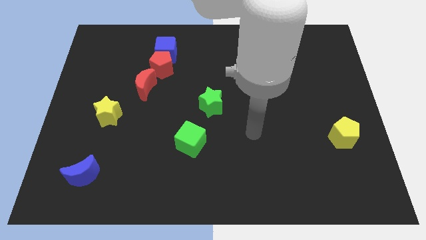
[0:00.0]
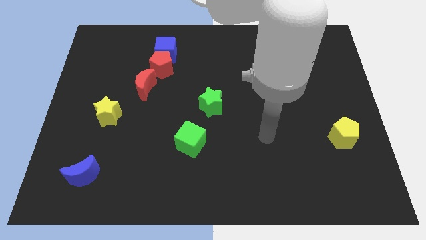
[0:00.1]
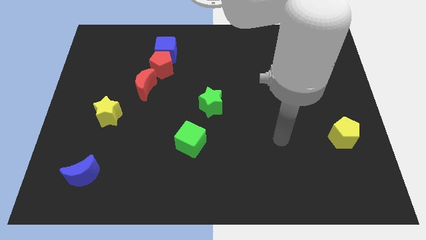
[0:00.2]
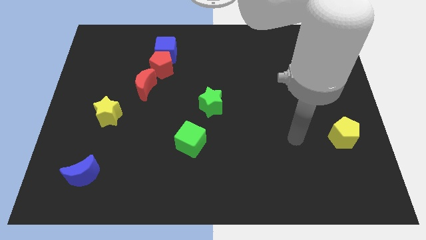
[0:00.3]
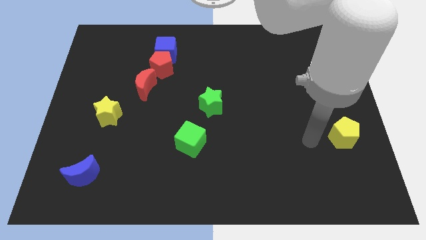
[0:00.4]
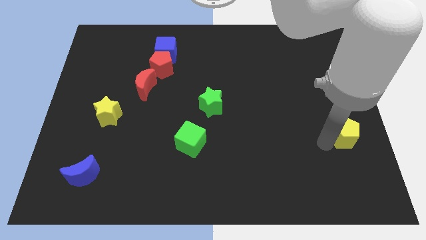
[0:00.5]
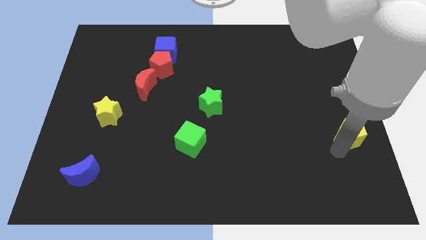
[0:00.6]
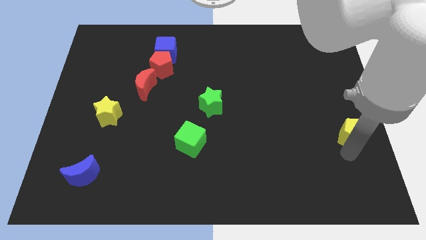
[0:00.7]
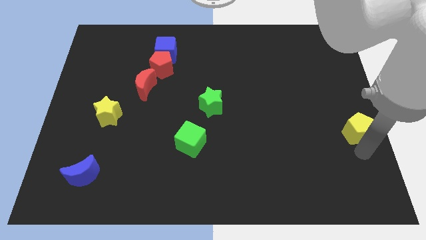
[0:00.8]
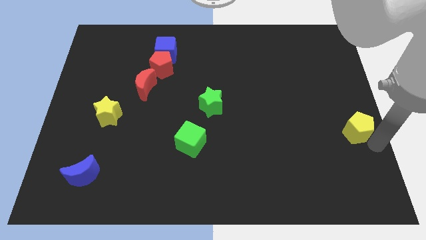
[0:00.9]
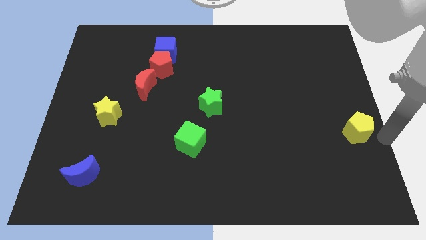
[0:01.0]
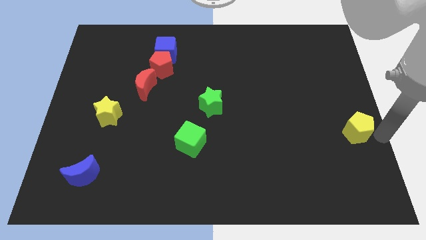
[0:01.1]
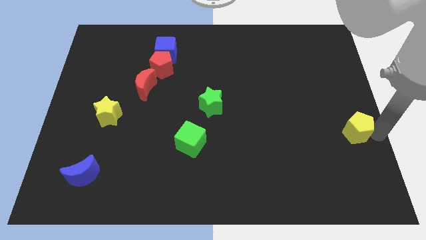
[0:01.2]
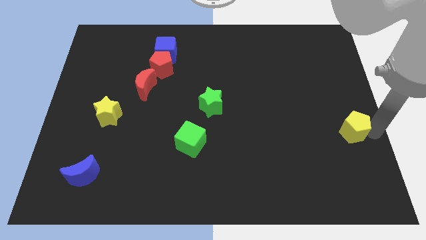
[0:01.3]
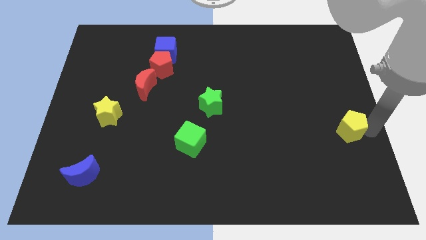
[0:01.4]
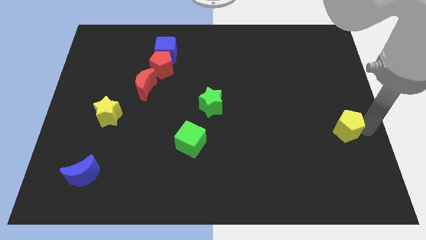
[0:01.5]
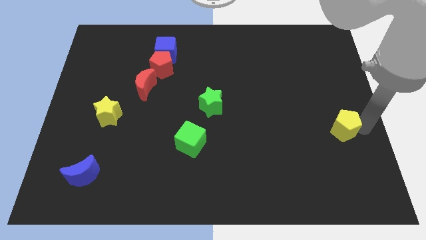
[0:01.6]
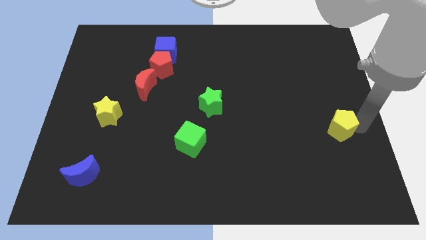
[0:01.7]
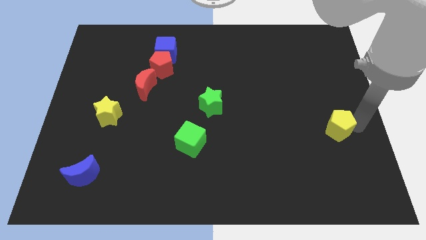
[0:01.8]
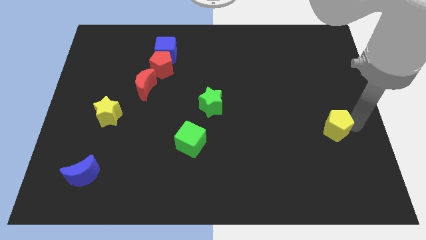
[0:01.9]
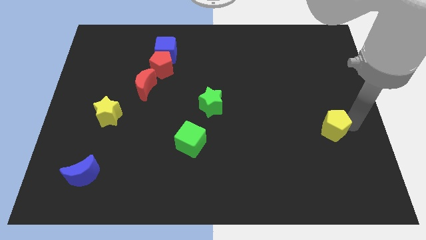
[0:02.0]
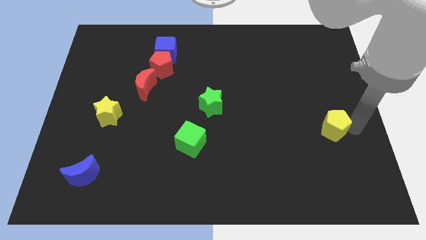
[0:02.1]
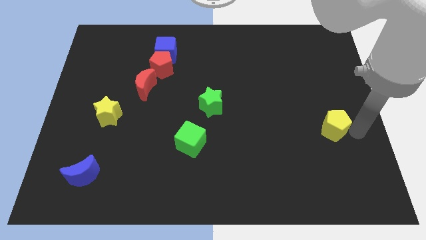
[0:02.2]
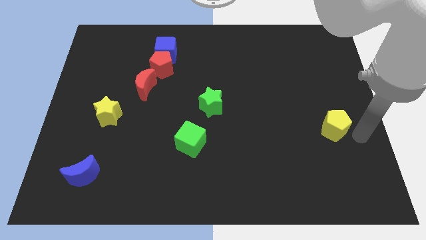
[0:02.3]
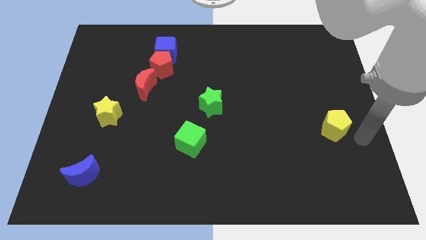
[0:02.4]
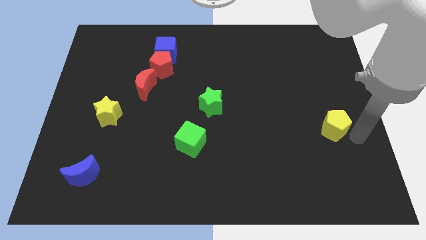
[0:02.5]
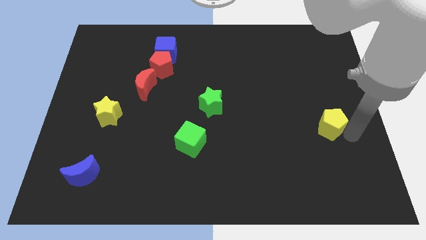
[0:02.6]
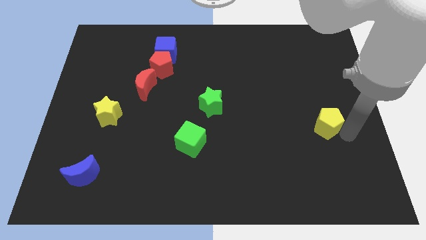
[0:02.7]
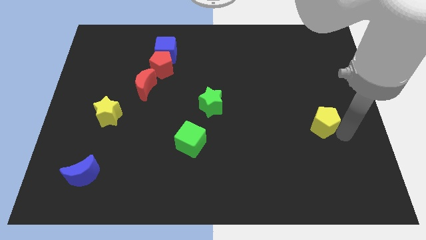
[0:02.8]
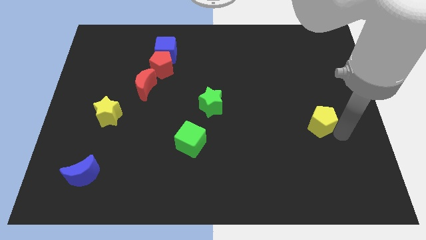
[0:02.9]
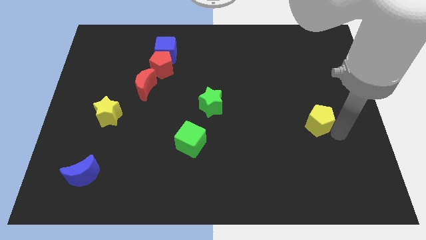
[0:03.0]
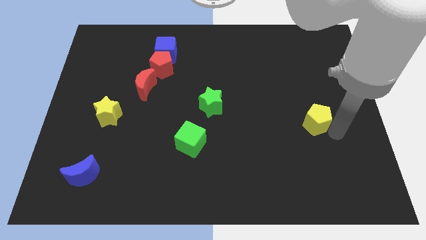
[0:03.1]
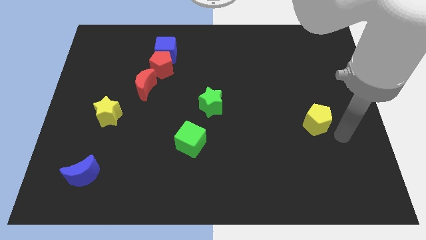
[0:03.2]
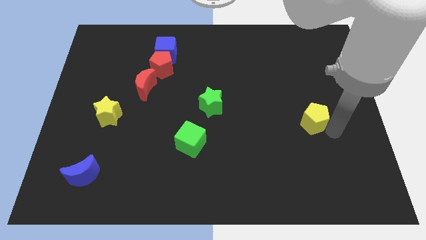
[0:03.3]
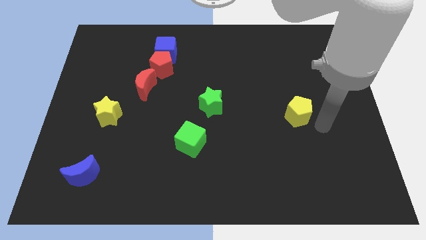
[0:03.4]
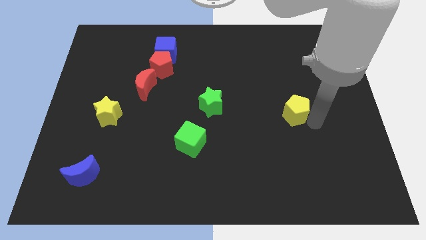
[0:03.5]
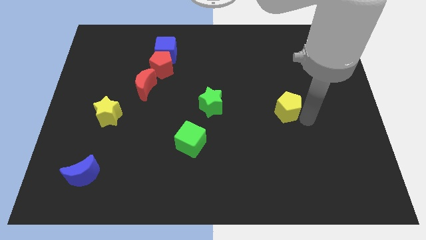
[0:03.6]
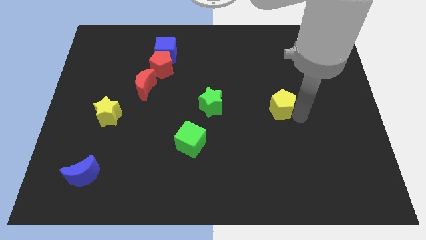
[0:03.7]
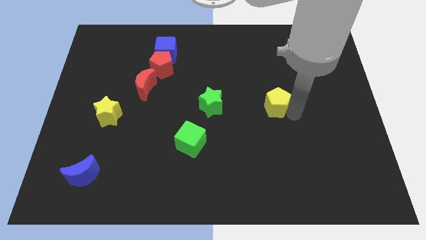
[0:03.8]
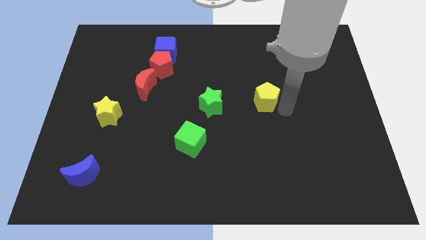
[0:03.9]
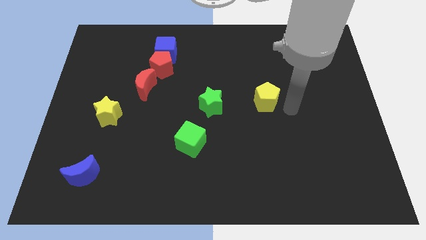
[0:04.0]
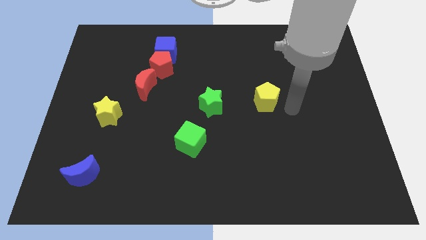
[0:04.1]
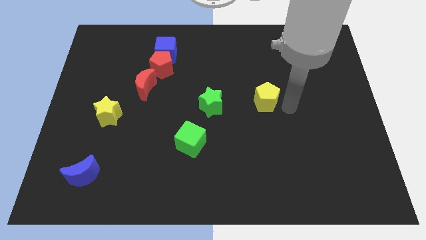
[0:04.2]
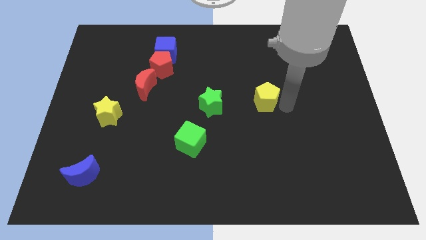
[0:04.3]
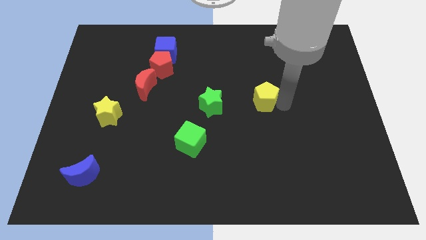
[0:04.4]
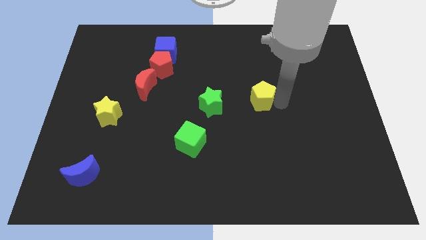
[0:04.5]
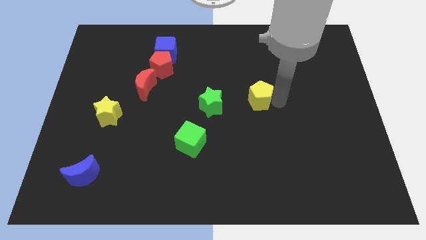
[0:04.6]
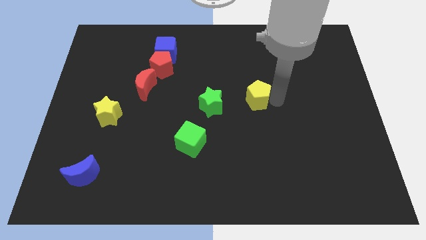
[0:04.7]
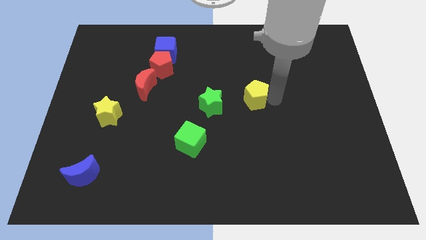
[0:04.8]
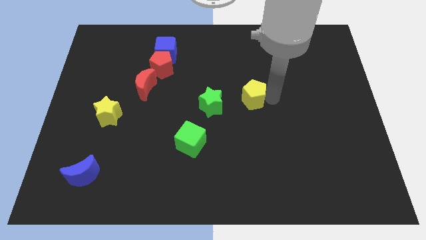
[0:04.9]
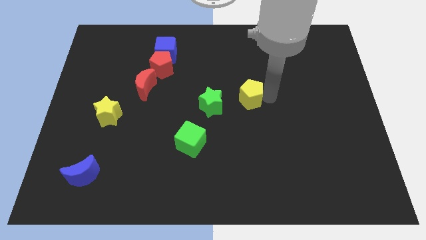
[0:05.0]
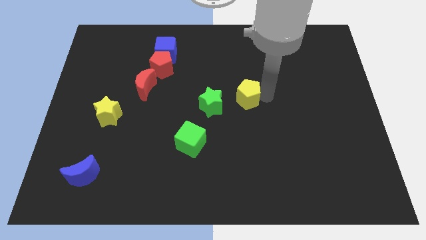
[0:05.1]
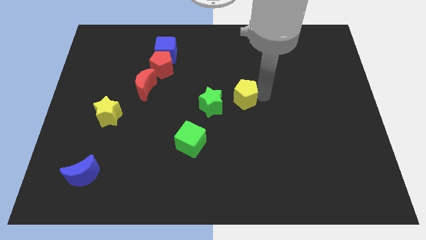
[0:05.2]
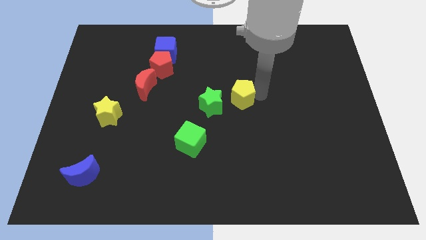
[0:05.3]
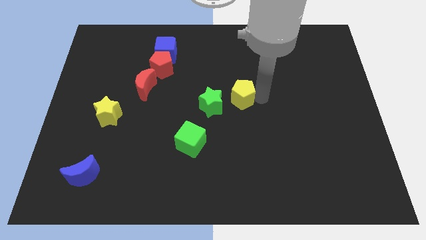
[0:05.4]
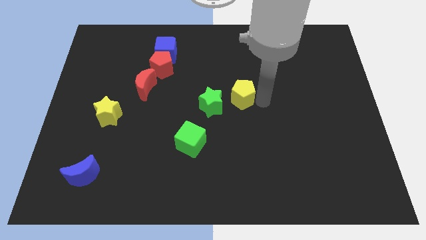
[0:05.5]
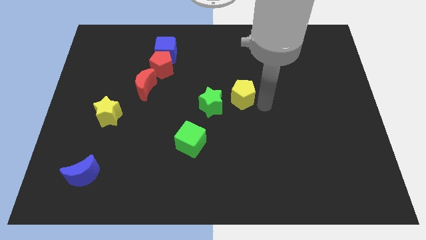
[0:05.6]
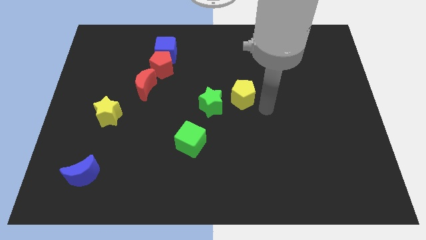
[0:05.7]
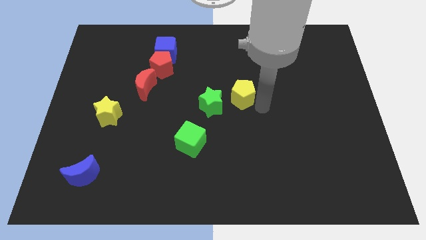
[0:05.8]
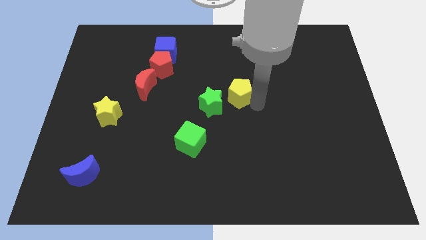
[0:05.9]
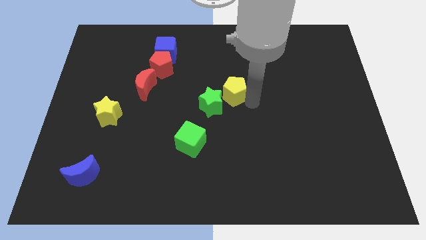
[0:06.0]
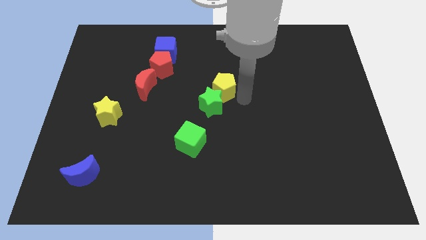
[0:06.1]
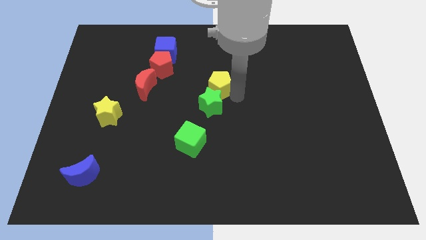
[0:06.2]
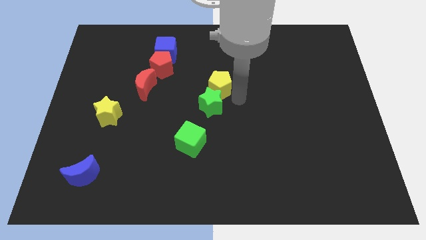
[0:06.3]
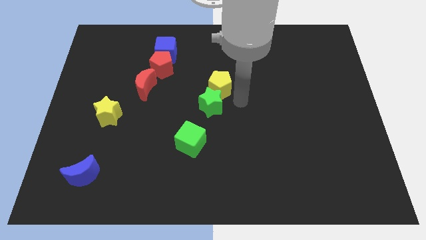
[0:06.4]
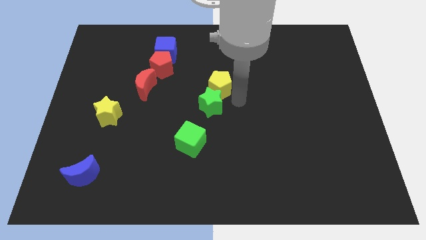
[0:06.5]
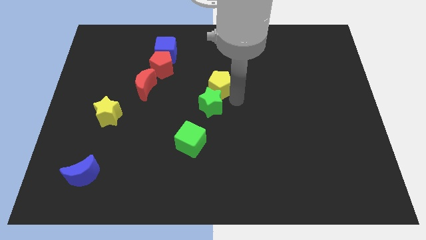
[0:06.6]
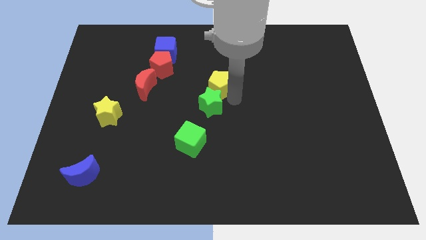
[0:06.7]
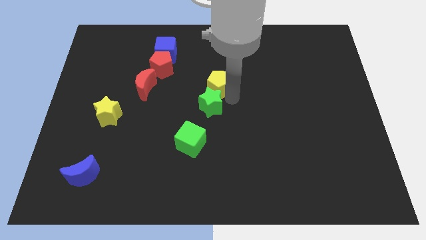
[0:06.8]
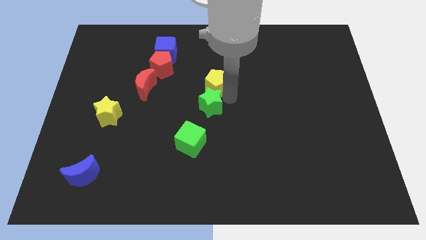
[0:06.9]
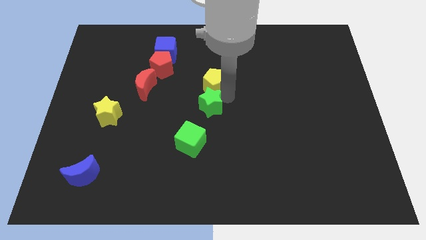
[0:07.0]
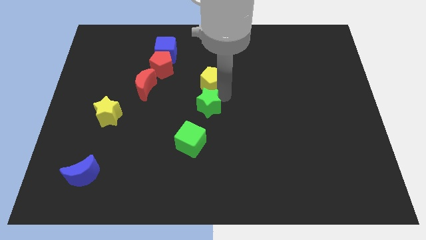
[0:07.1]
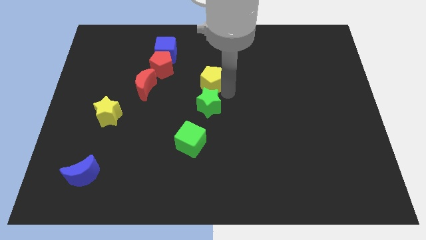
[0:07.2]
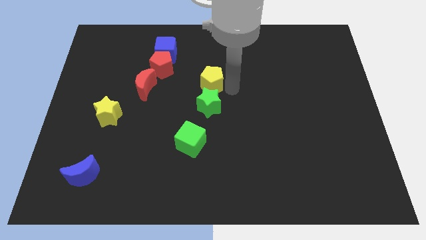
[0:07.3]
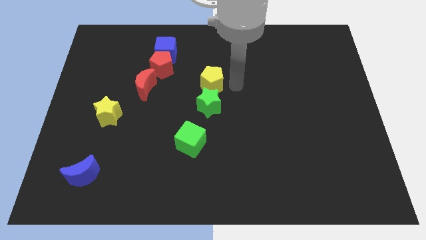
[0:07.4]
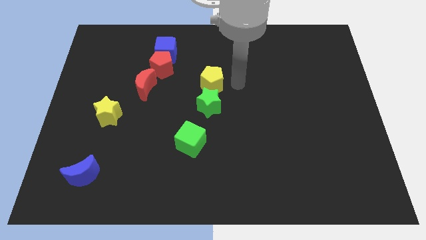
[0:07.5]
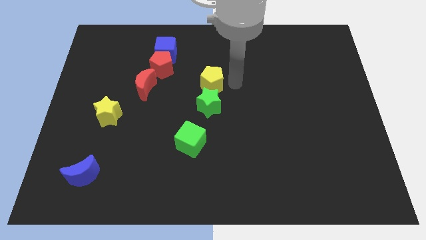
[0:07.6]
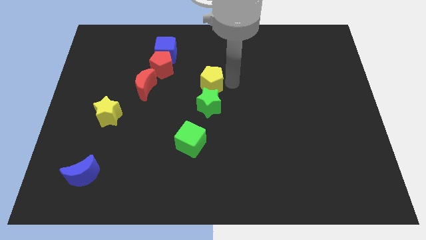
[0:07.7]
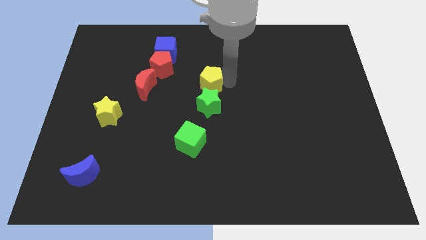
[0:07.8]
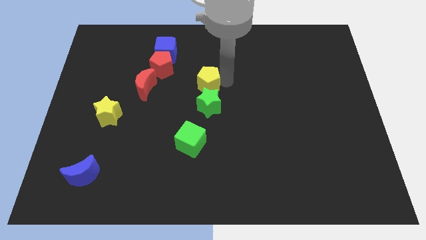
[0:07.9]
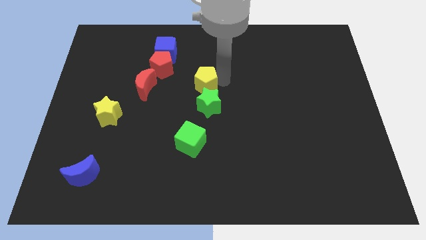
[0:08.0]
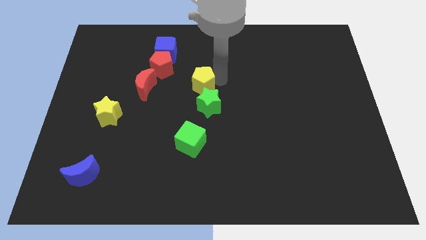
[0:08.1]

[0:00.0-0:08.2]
put the yellow pentagon to the bottom right of the red pentagon

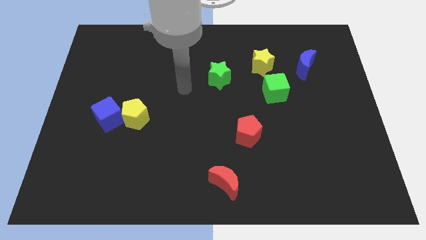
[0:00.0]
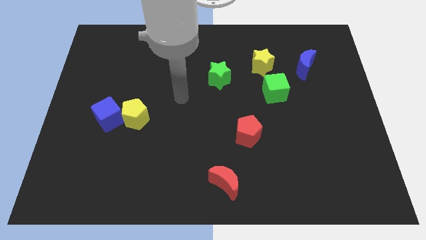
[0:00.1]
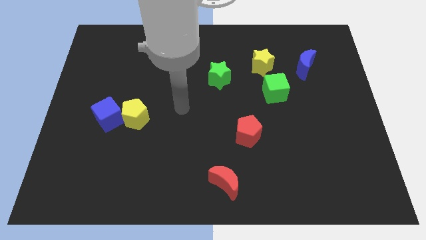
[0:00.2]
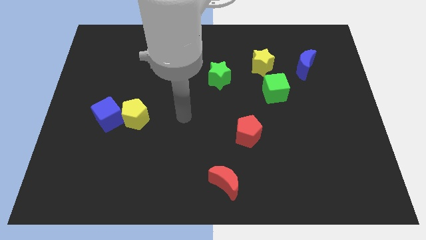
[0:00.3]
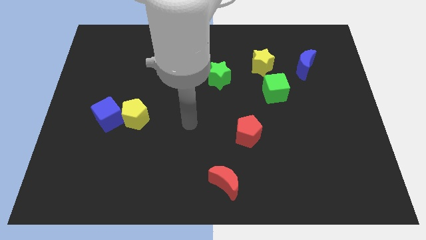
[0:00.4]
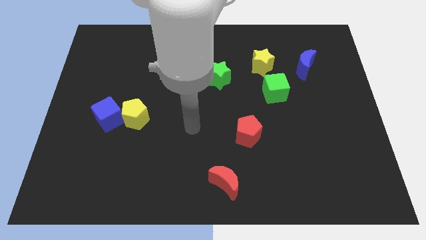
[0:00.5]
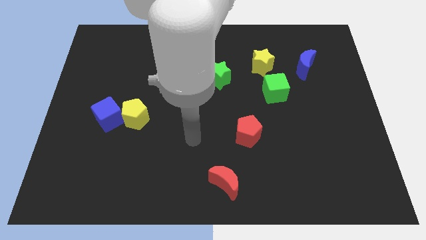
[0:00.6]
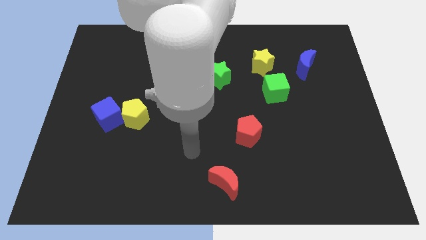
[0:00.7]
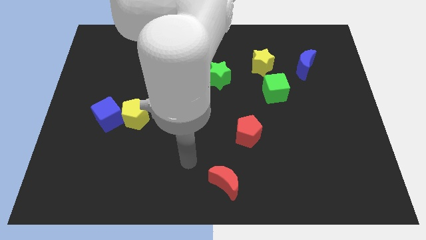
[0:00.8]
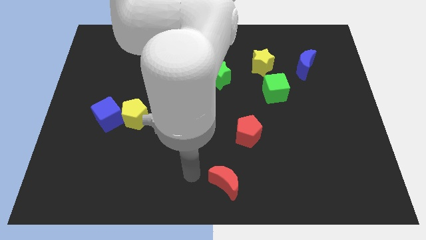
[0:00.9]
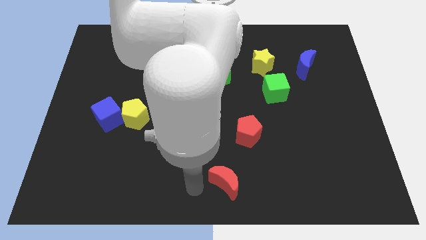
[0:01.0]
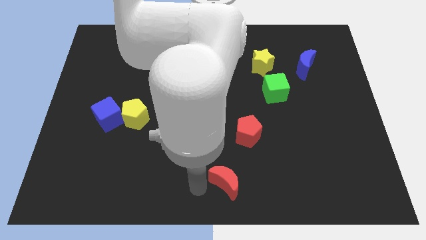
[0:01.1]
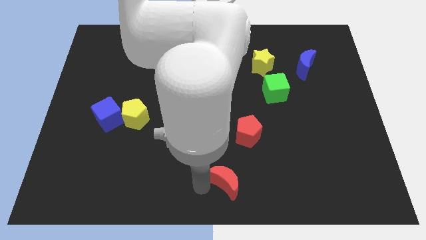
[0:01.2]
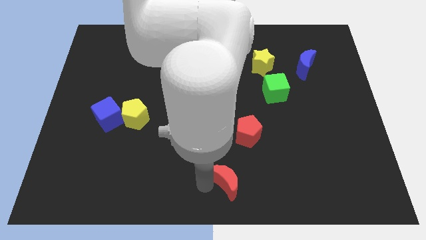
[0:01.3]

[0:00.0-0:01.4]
put the red moon below the red pentagon
